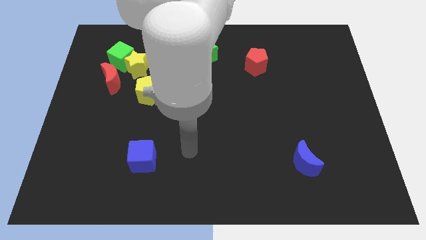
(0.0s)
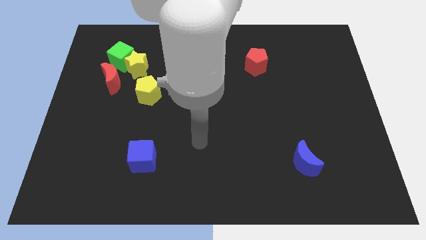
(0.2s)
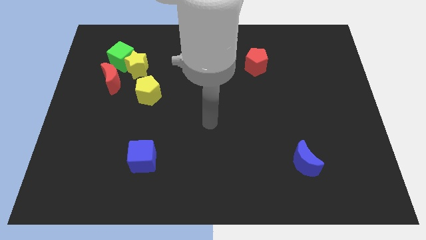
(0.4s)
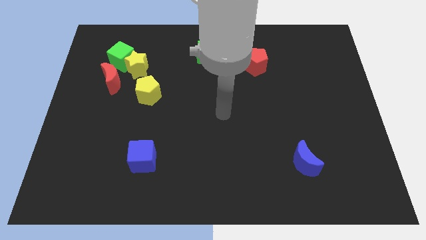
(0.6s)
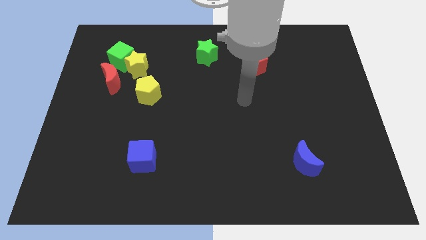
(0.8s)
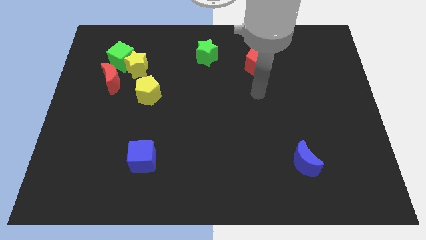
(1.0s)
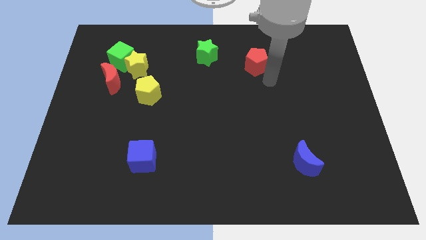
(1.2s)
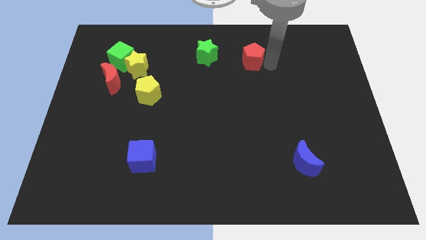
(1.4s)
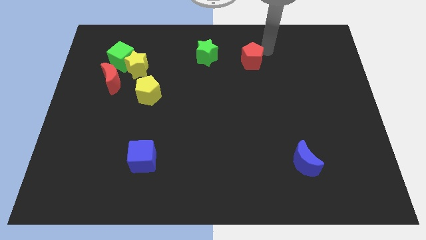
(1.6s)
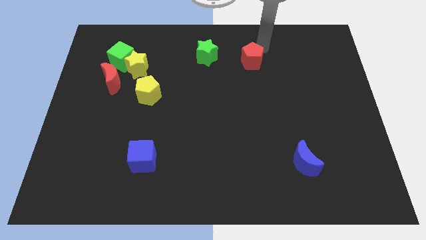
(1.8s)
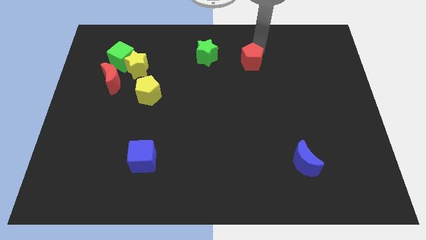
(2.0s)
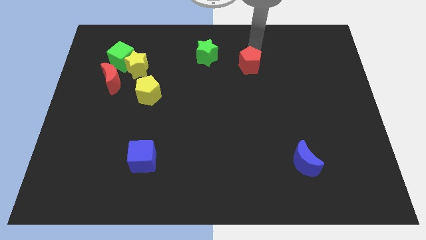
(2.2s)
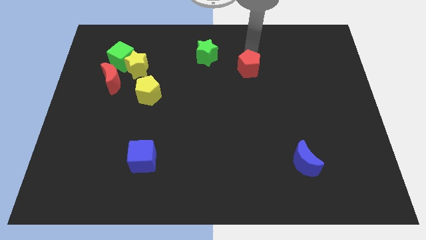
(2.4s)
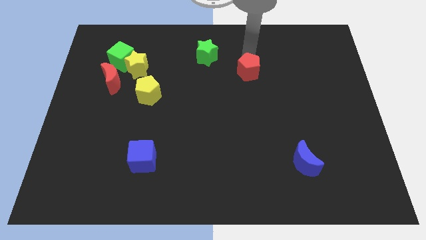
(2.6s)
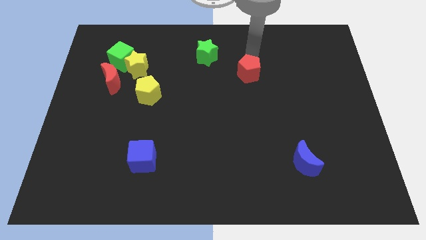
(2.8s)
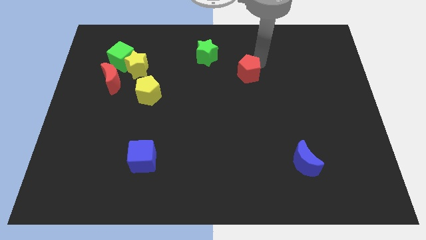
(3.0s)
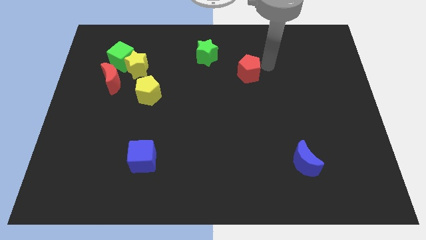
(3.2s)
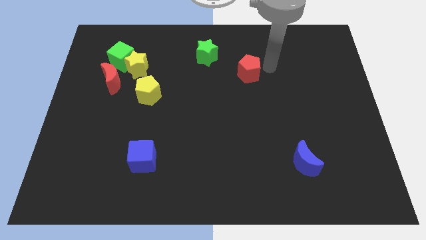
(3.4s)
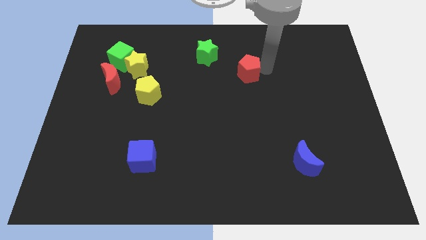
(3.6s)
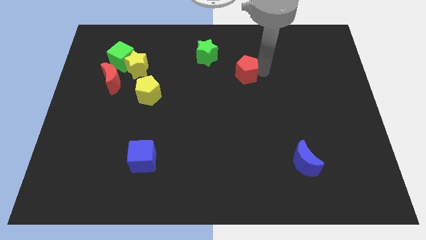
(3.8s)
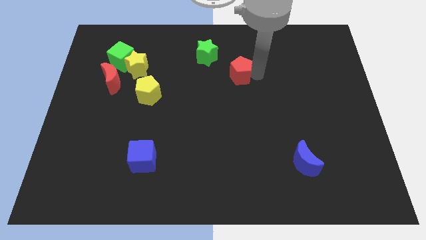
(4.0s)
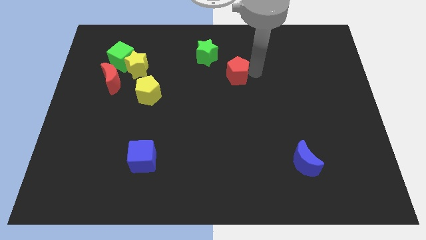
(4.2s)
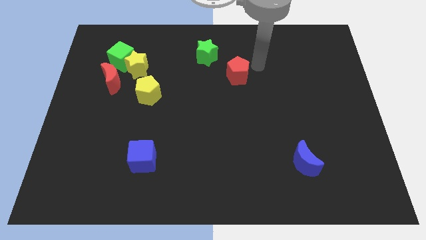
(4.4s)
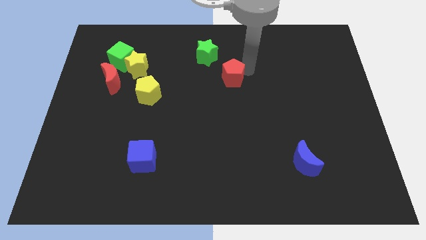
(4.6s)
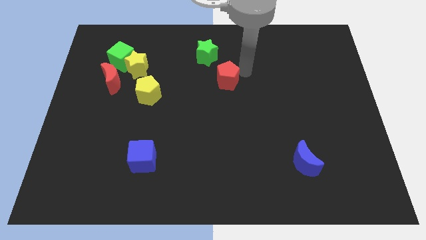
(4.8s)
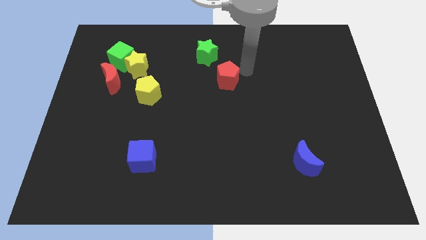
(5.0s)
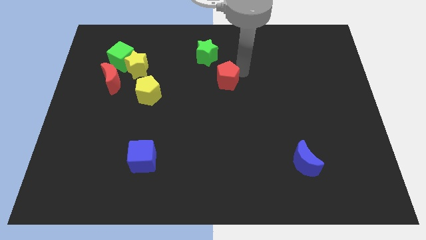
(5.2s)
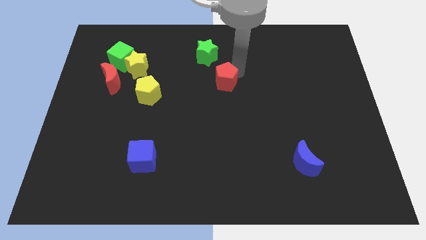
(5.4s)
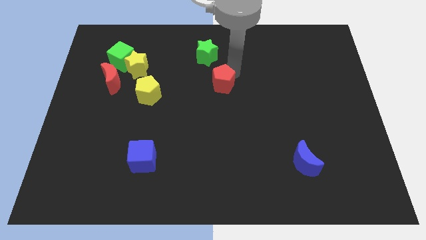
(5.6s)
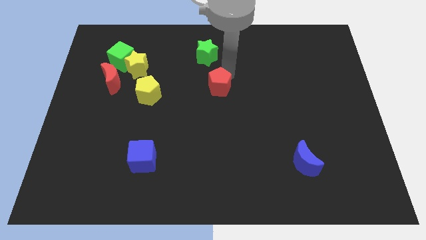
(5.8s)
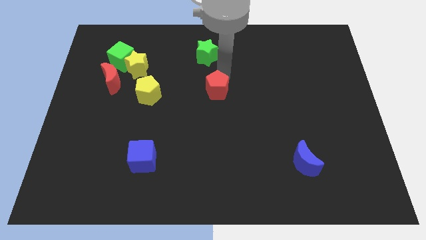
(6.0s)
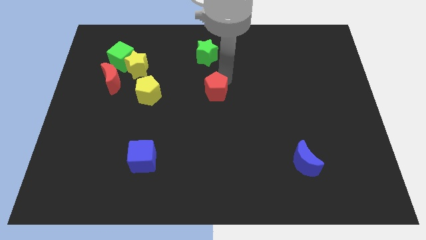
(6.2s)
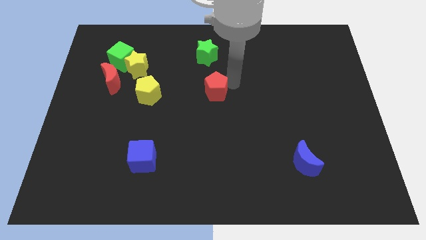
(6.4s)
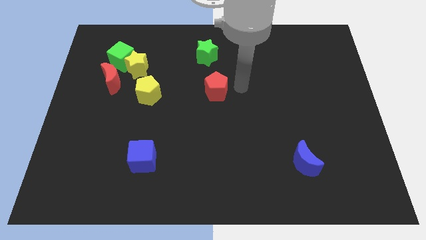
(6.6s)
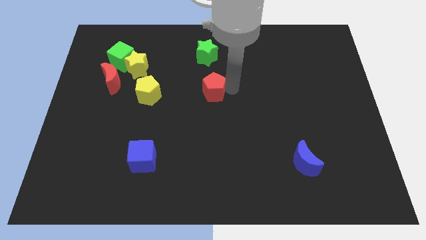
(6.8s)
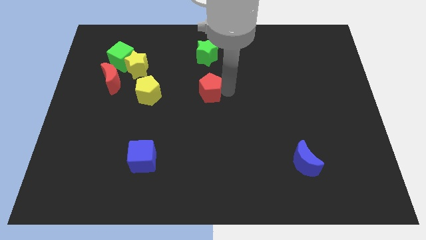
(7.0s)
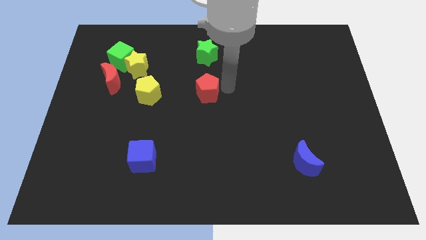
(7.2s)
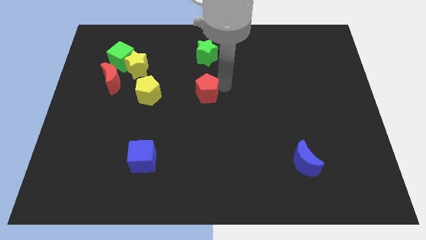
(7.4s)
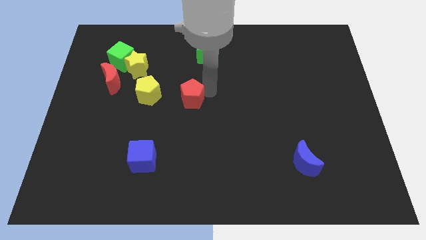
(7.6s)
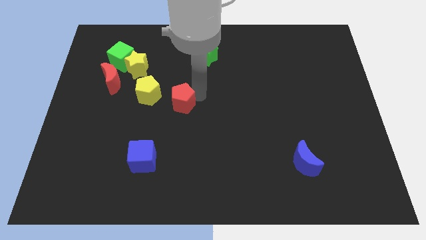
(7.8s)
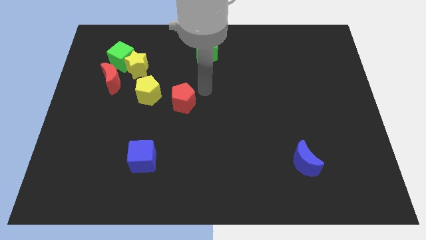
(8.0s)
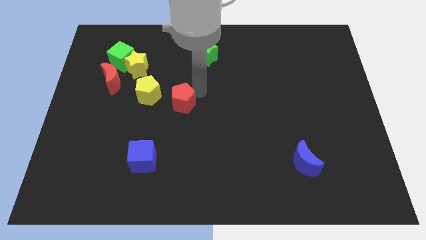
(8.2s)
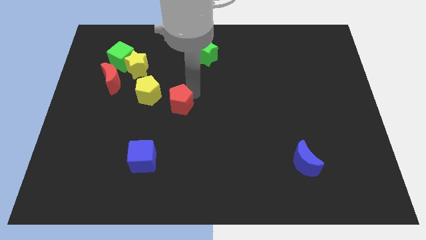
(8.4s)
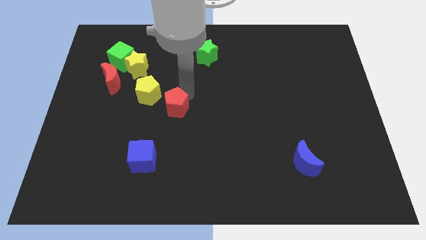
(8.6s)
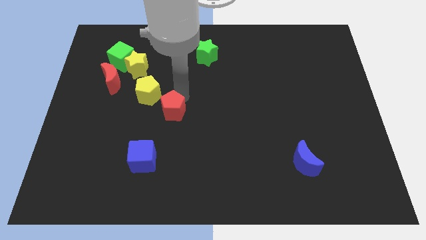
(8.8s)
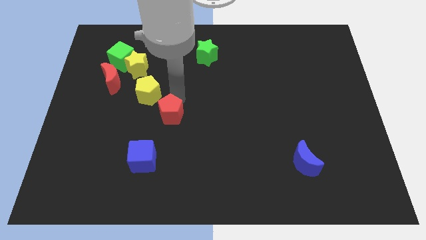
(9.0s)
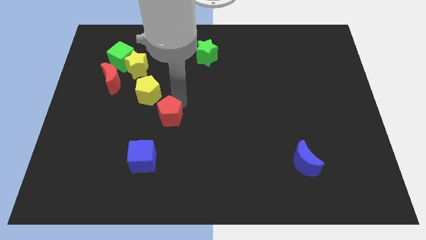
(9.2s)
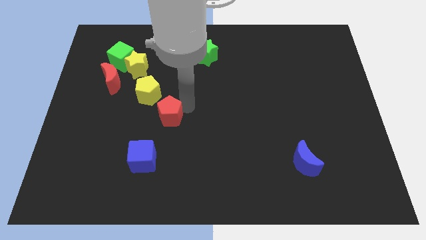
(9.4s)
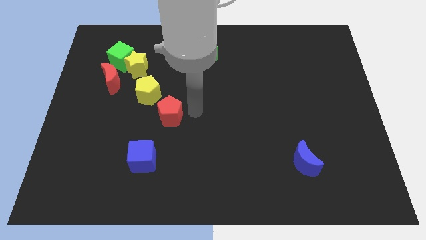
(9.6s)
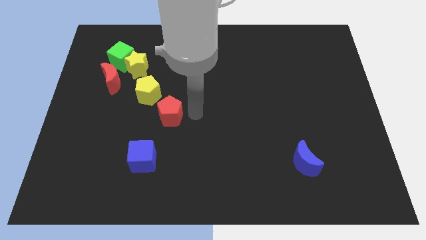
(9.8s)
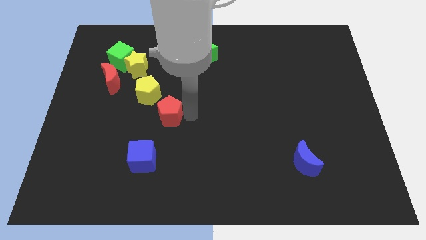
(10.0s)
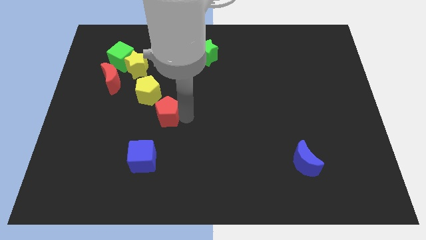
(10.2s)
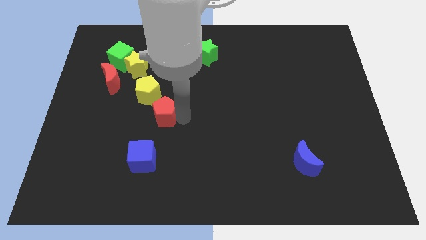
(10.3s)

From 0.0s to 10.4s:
put the red pentagon below the yellow pentagon

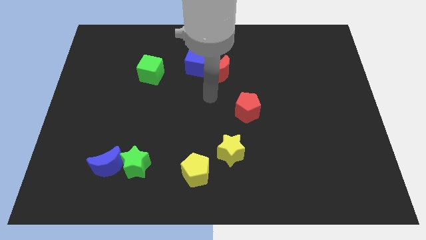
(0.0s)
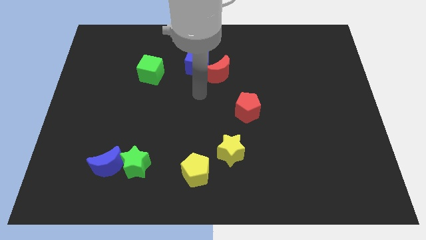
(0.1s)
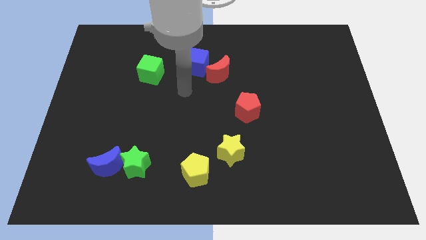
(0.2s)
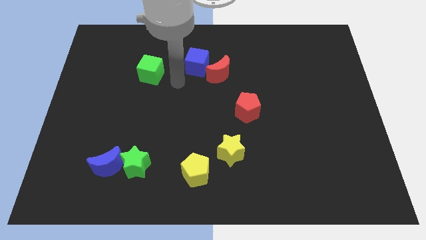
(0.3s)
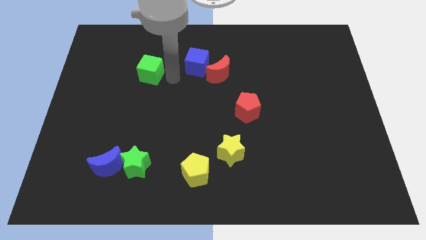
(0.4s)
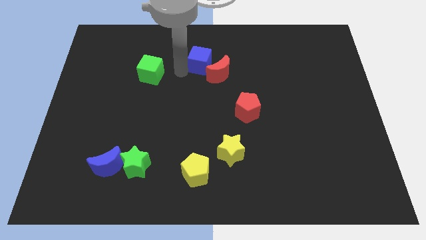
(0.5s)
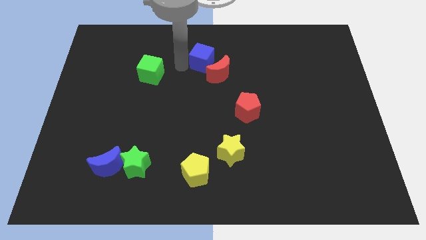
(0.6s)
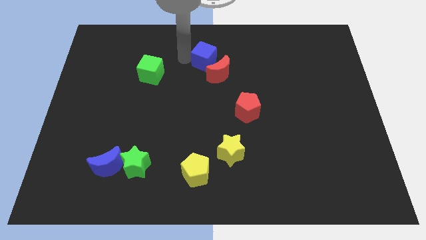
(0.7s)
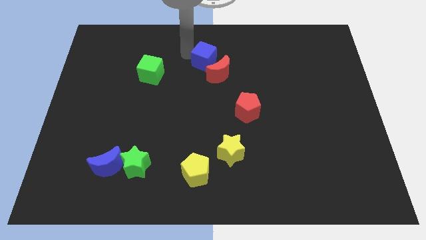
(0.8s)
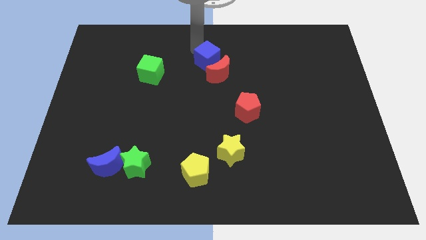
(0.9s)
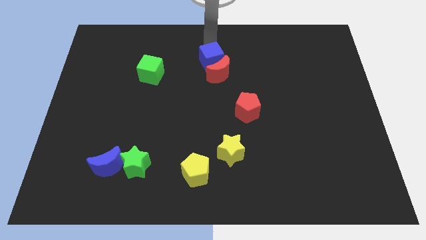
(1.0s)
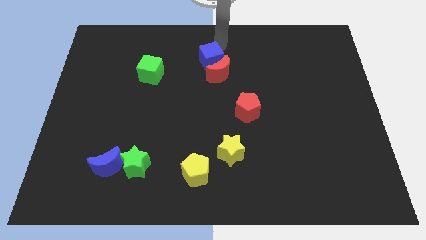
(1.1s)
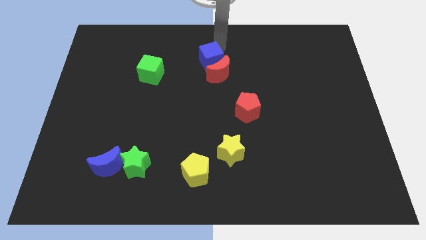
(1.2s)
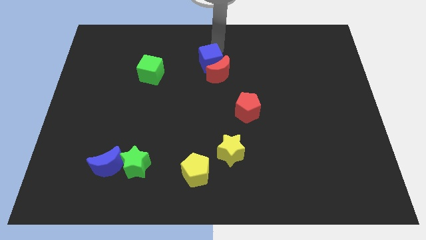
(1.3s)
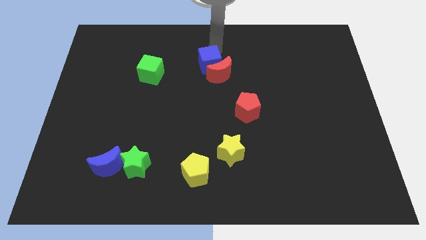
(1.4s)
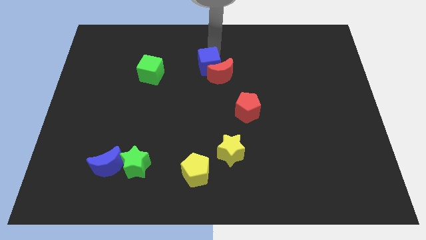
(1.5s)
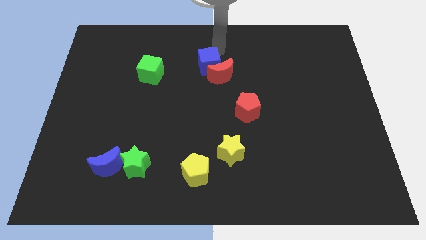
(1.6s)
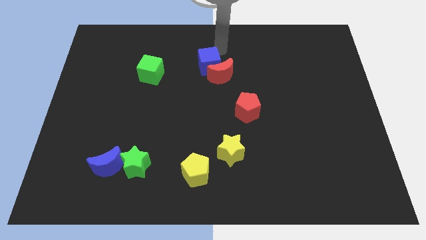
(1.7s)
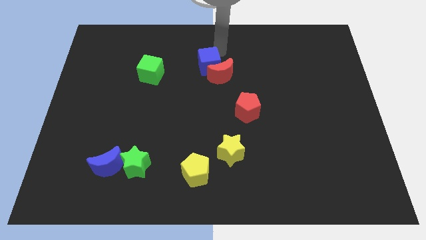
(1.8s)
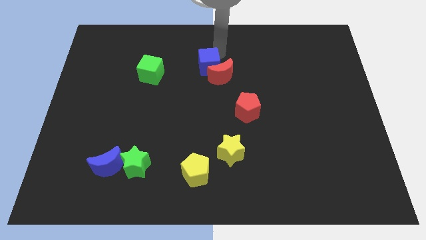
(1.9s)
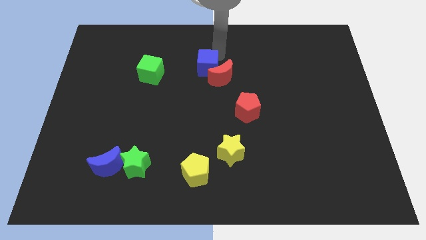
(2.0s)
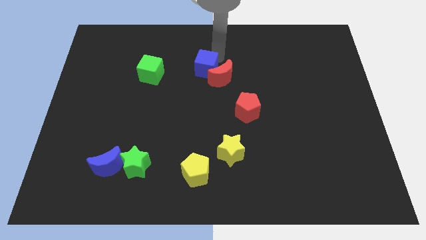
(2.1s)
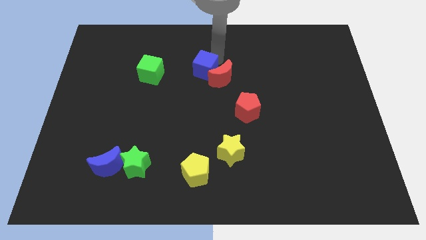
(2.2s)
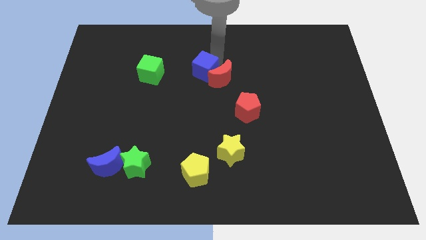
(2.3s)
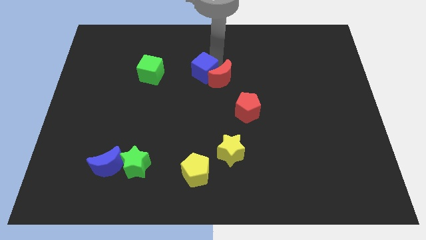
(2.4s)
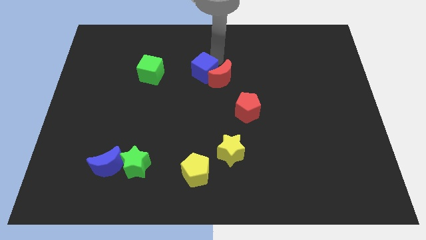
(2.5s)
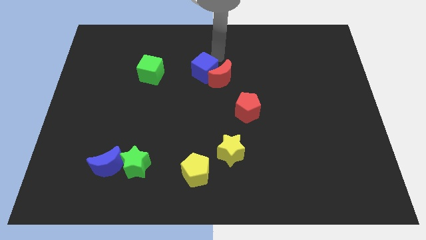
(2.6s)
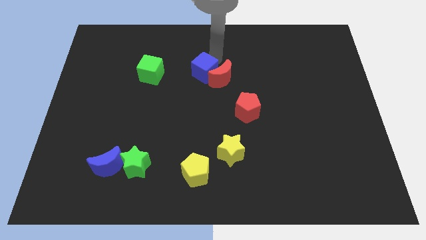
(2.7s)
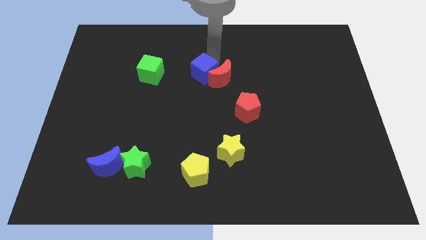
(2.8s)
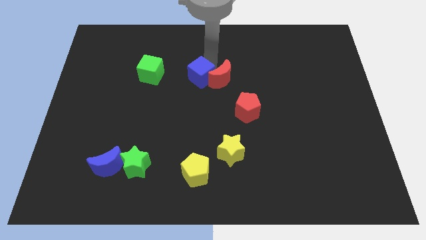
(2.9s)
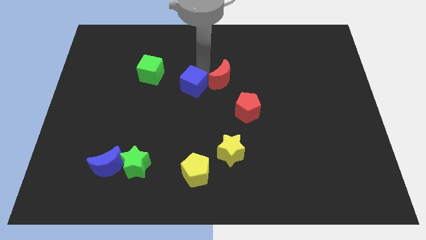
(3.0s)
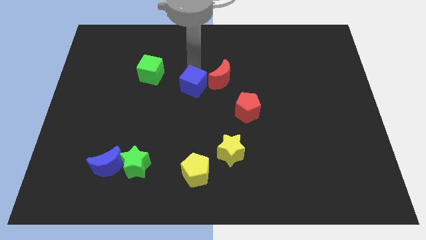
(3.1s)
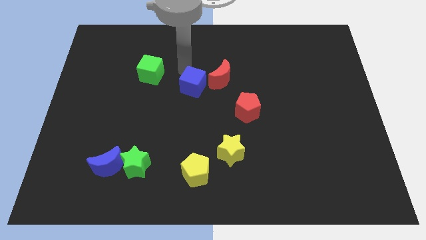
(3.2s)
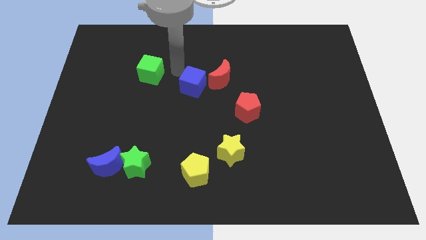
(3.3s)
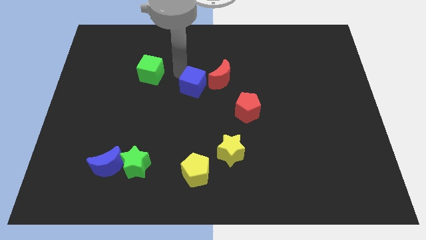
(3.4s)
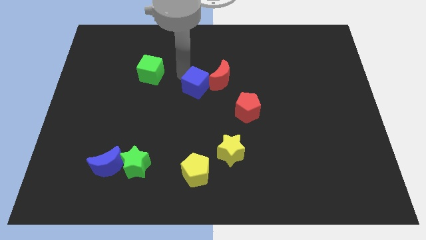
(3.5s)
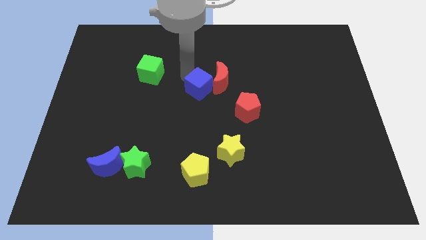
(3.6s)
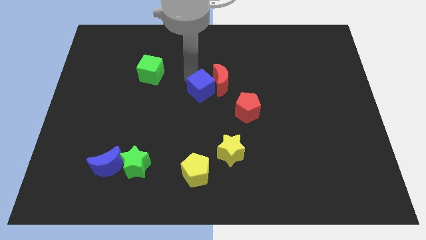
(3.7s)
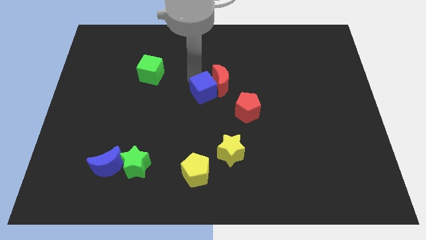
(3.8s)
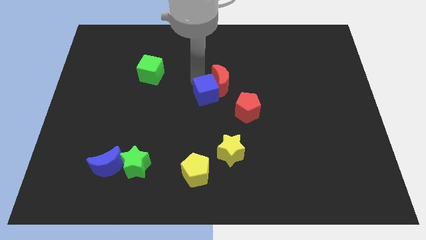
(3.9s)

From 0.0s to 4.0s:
push the blue cube to the bottom of the red moon
